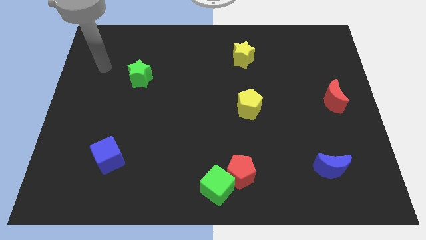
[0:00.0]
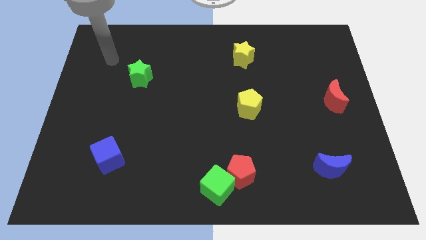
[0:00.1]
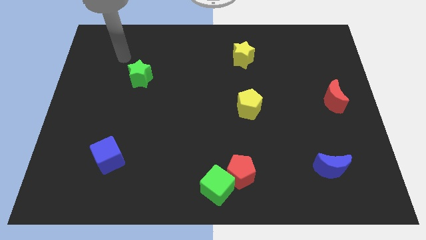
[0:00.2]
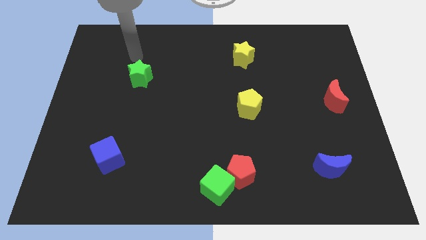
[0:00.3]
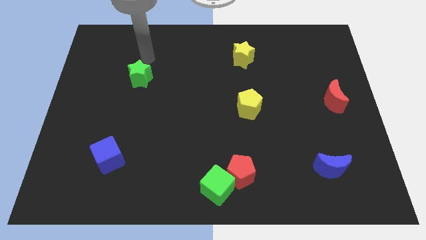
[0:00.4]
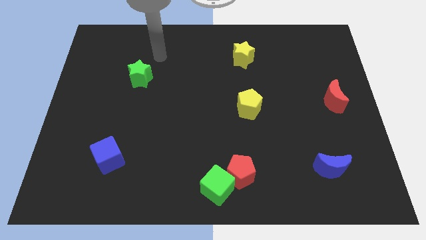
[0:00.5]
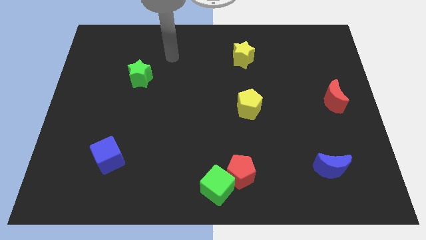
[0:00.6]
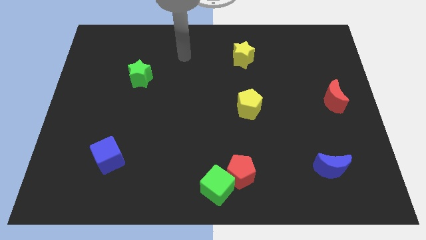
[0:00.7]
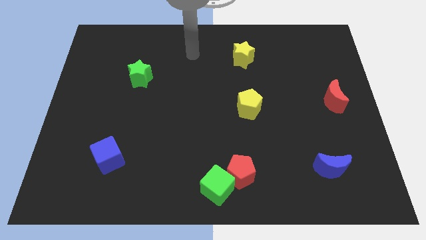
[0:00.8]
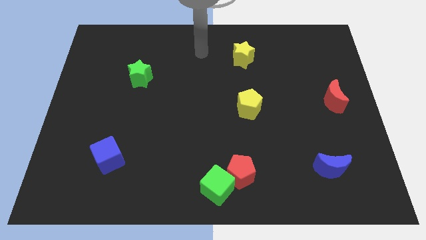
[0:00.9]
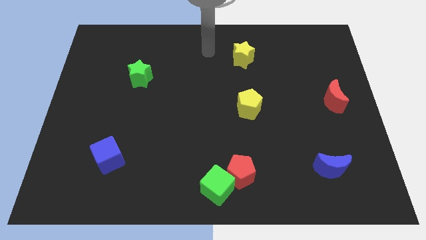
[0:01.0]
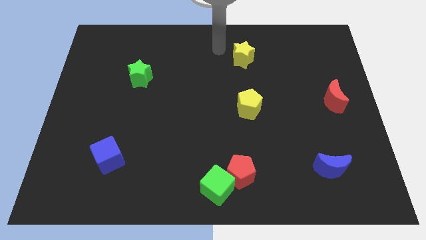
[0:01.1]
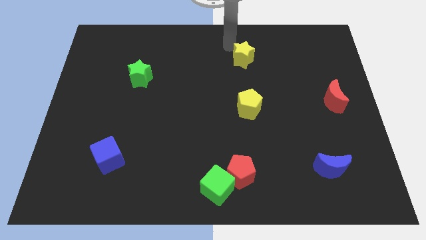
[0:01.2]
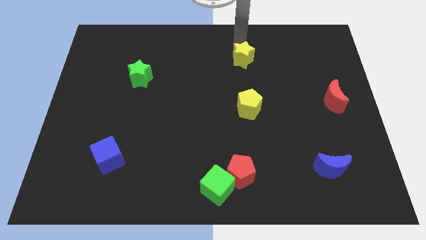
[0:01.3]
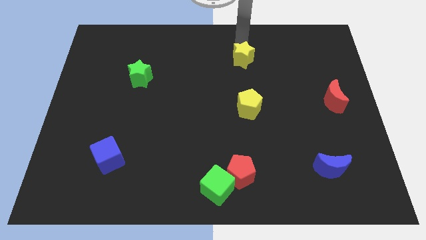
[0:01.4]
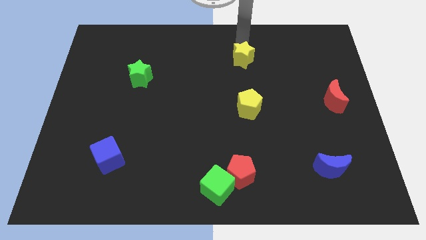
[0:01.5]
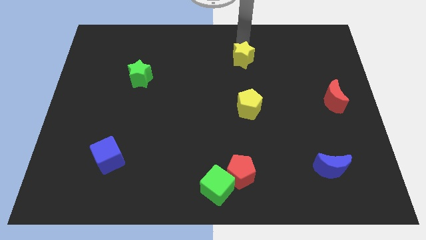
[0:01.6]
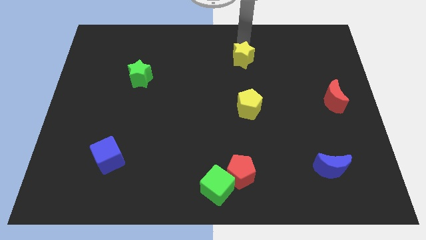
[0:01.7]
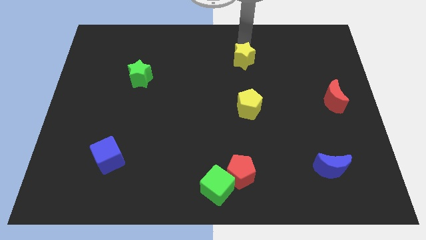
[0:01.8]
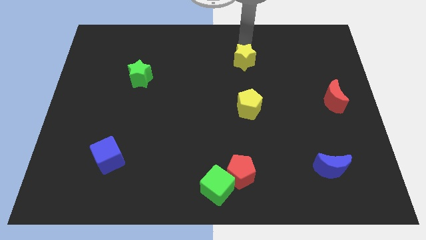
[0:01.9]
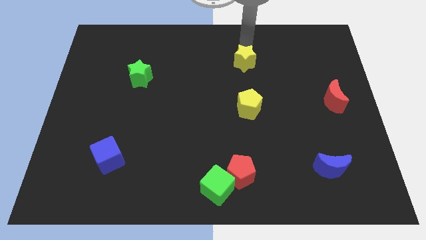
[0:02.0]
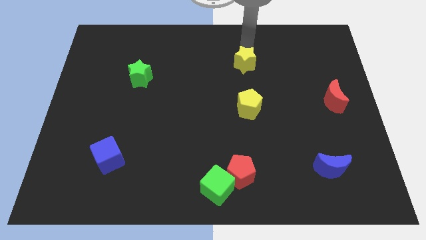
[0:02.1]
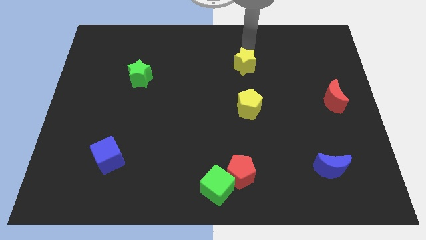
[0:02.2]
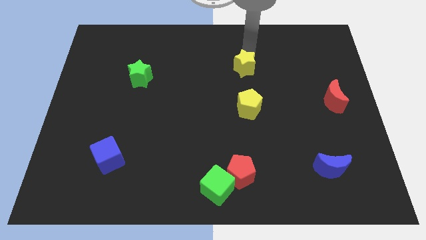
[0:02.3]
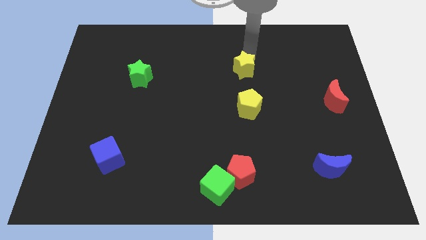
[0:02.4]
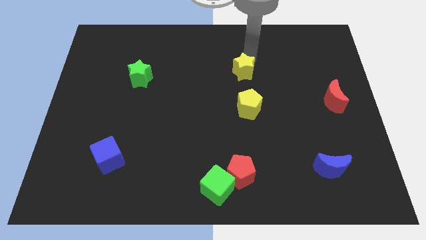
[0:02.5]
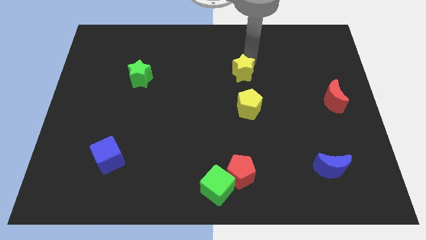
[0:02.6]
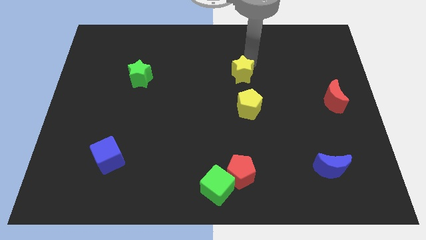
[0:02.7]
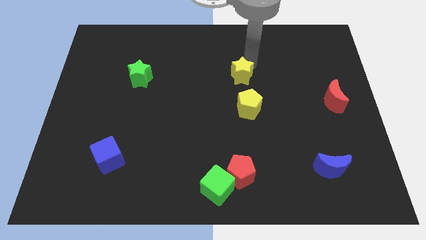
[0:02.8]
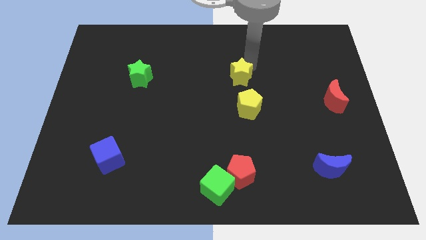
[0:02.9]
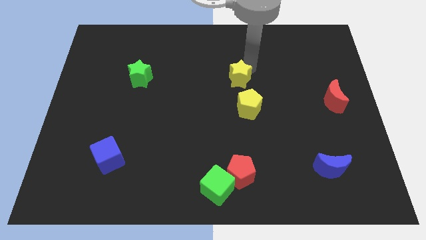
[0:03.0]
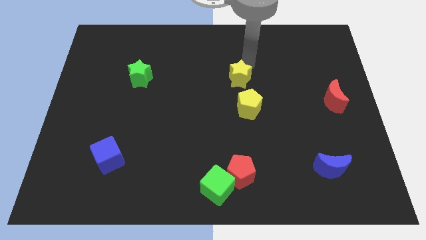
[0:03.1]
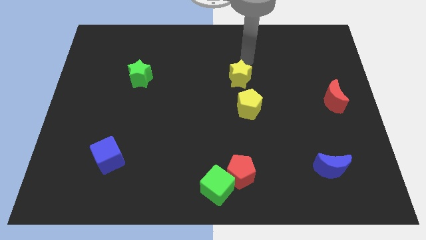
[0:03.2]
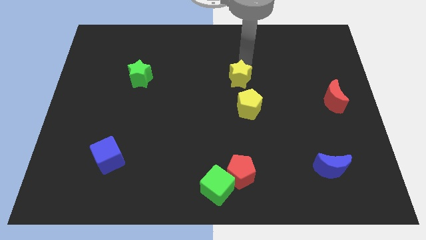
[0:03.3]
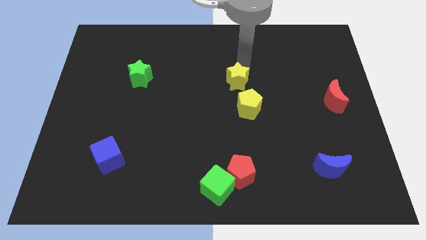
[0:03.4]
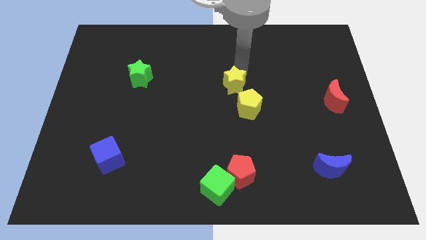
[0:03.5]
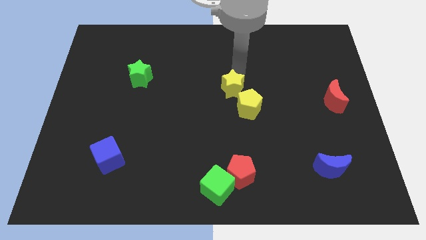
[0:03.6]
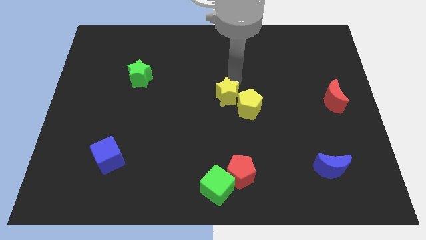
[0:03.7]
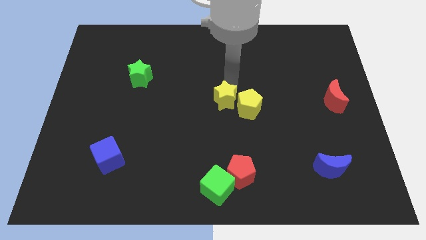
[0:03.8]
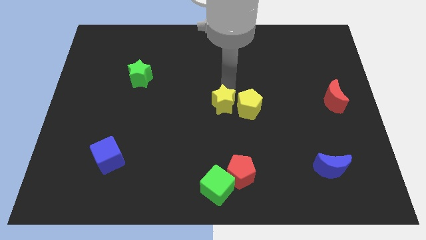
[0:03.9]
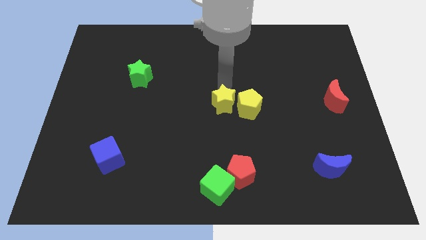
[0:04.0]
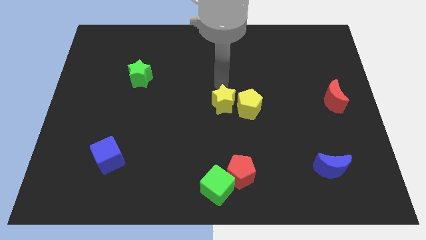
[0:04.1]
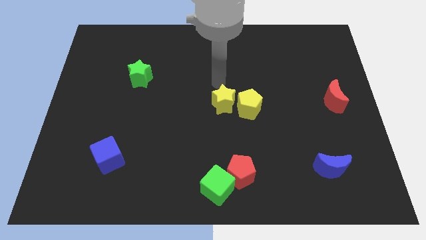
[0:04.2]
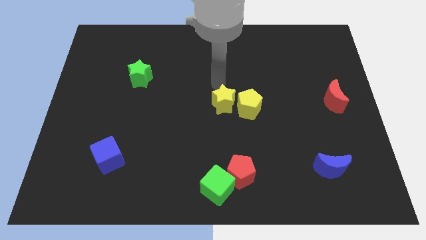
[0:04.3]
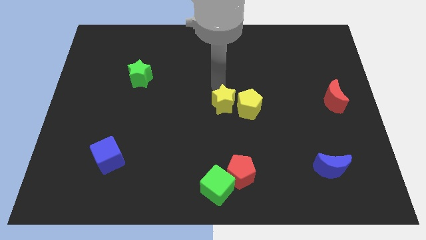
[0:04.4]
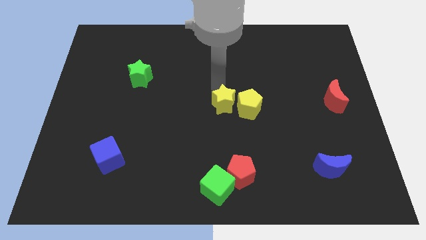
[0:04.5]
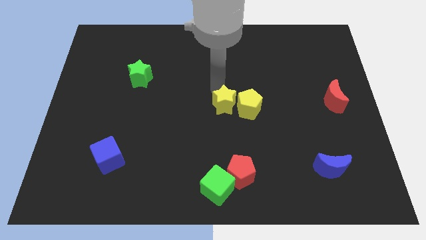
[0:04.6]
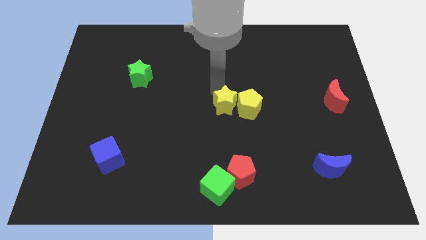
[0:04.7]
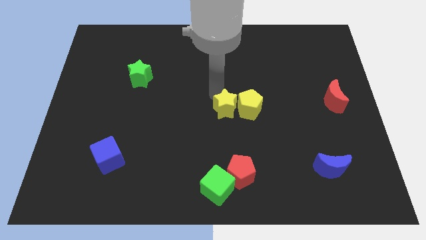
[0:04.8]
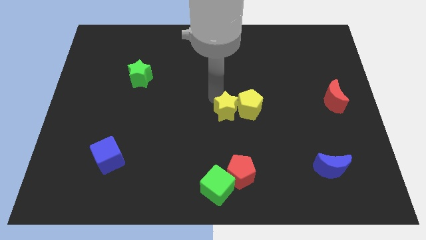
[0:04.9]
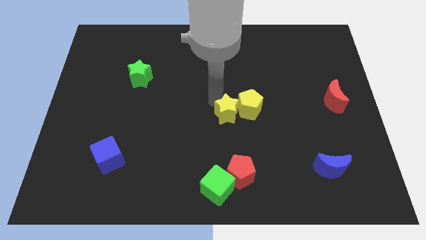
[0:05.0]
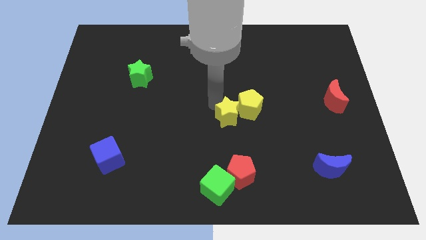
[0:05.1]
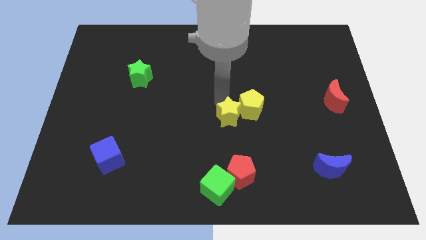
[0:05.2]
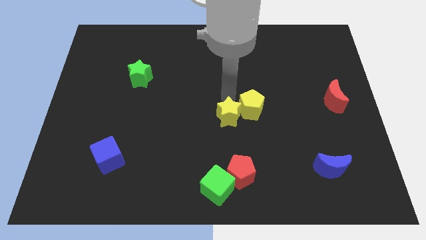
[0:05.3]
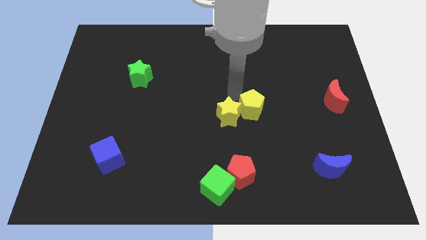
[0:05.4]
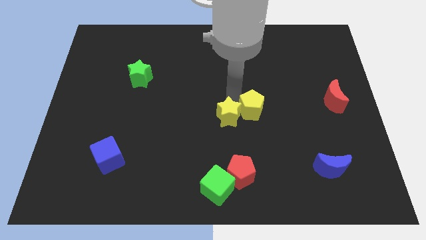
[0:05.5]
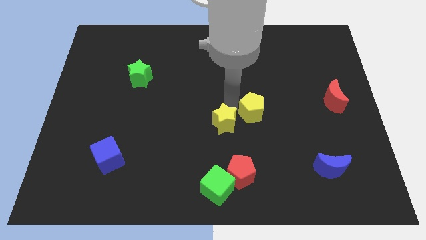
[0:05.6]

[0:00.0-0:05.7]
push the yellow star to the top of the green cube

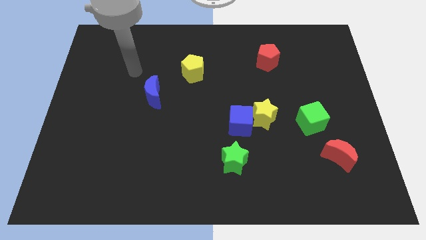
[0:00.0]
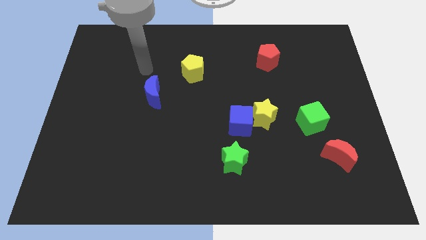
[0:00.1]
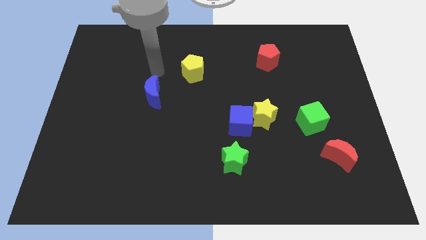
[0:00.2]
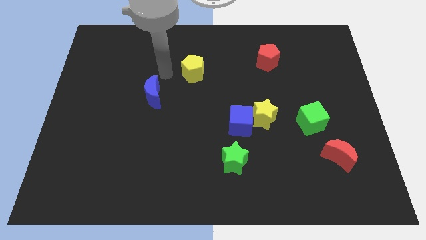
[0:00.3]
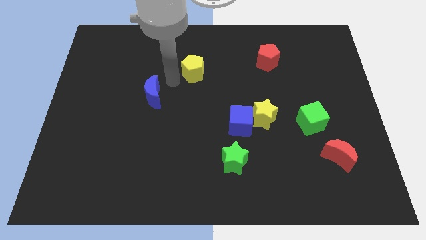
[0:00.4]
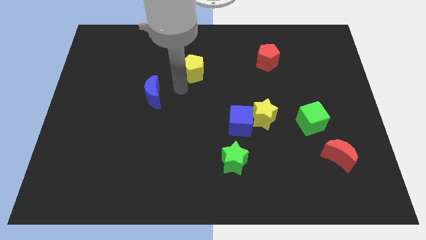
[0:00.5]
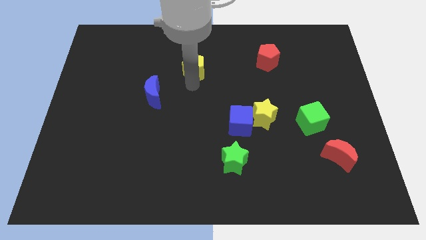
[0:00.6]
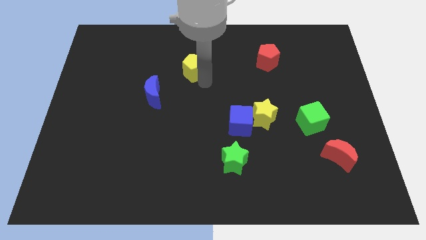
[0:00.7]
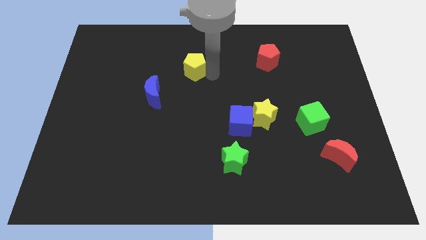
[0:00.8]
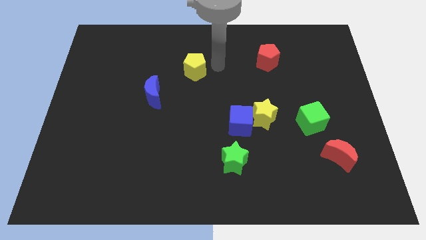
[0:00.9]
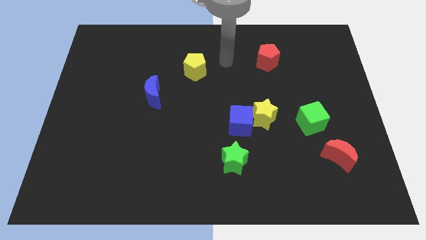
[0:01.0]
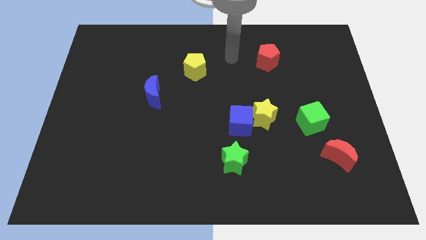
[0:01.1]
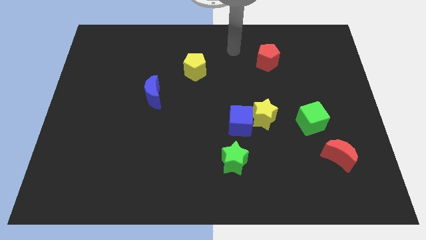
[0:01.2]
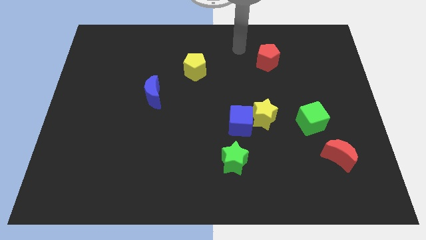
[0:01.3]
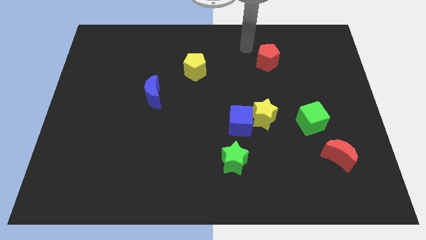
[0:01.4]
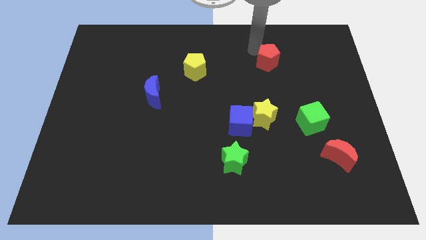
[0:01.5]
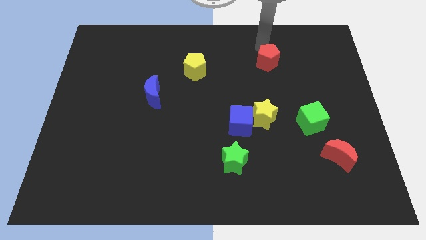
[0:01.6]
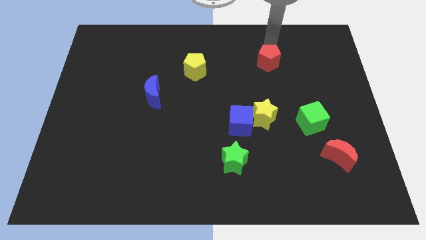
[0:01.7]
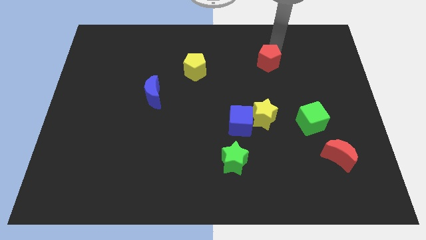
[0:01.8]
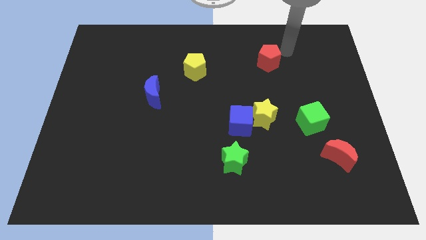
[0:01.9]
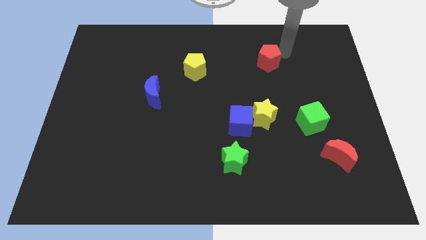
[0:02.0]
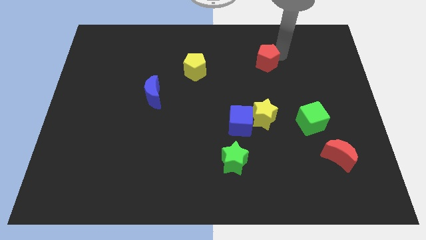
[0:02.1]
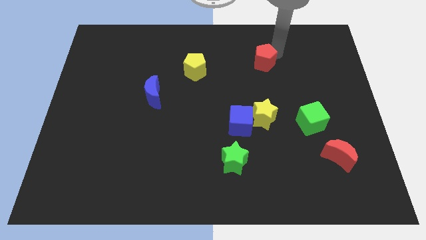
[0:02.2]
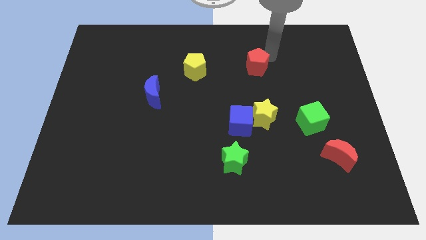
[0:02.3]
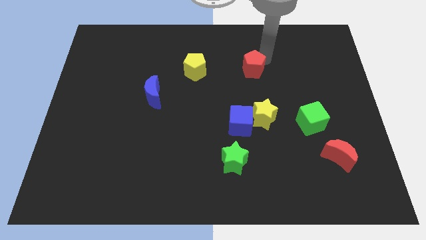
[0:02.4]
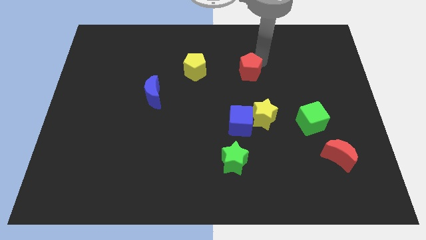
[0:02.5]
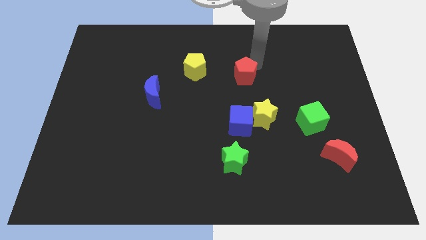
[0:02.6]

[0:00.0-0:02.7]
slide the red pentagon to the top side of the blue cube
